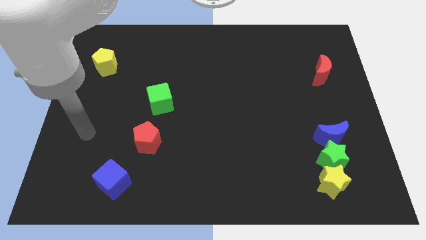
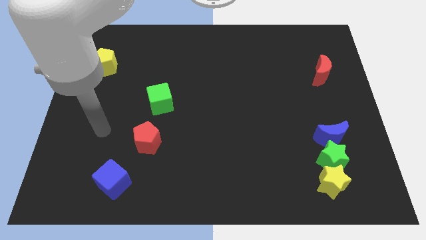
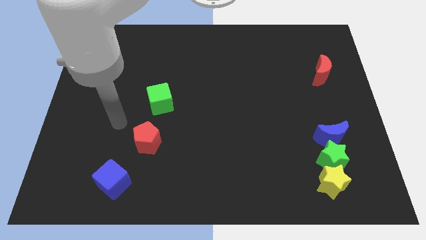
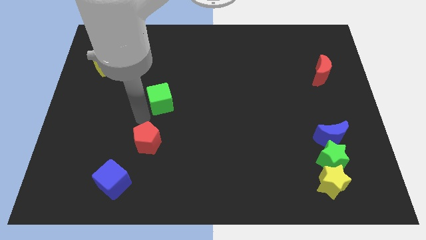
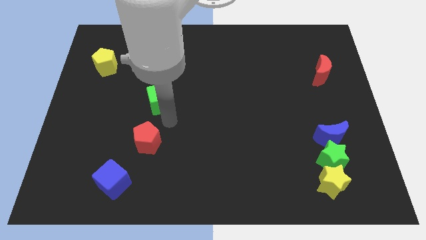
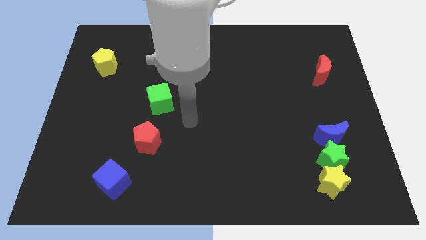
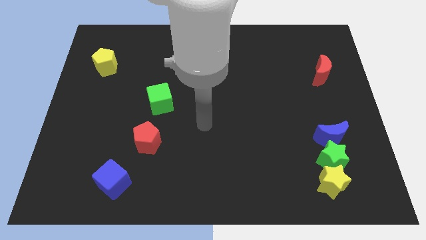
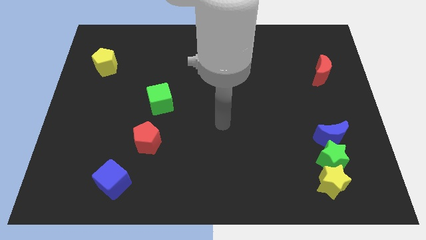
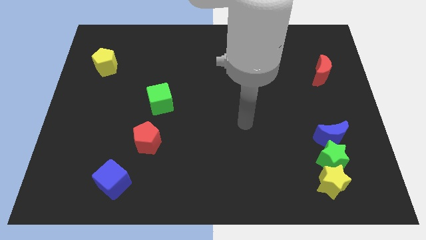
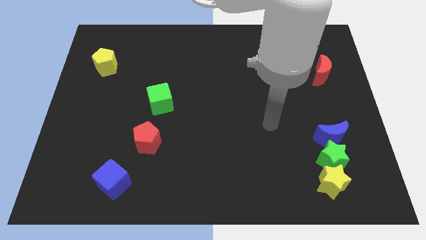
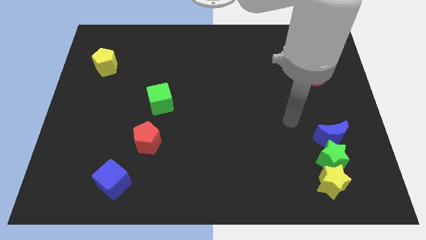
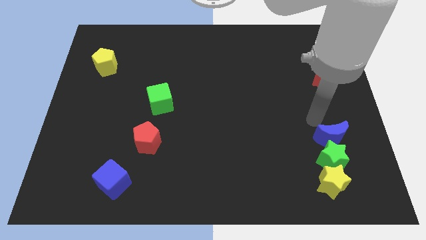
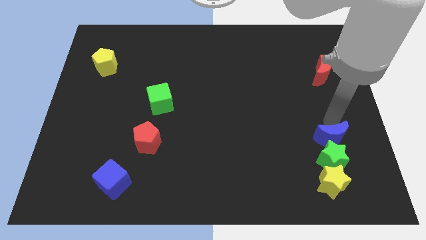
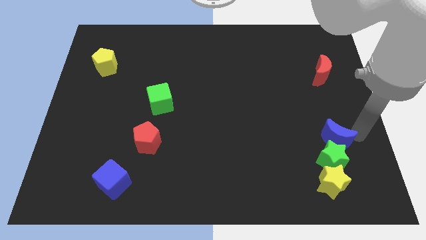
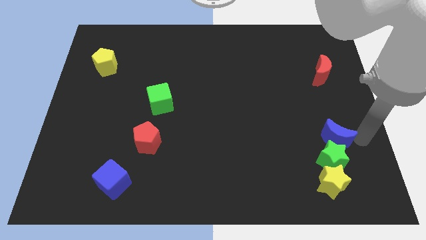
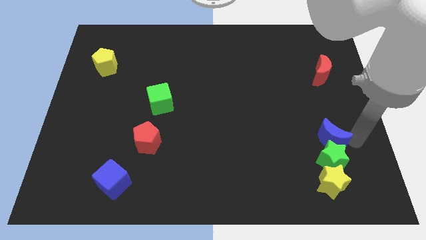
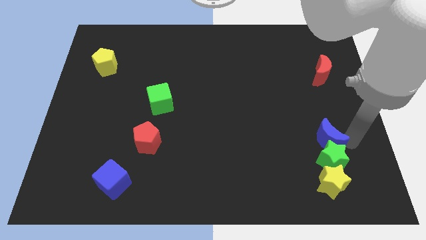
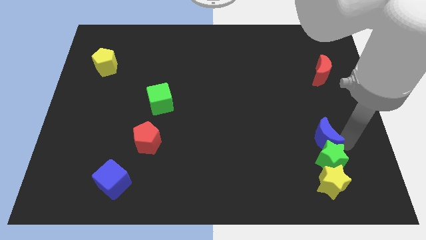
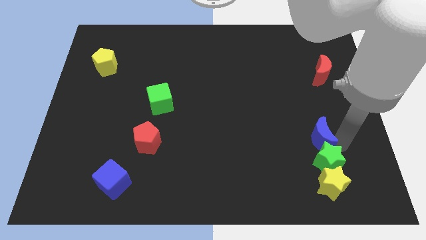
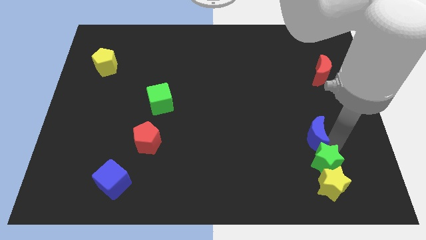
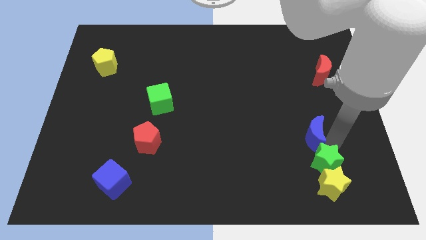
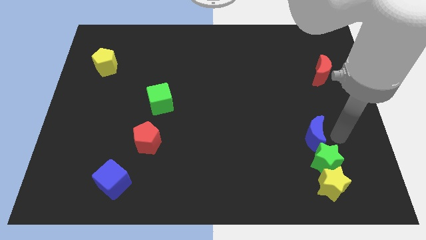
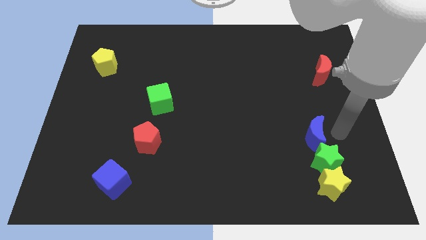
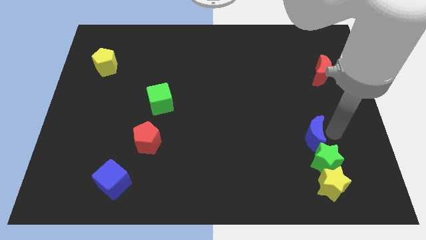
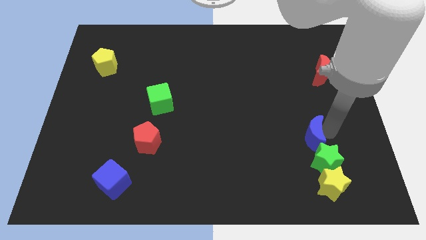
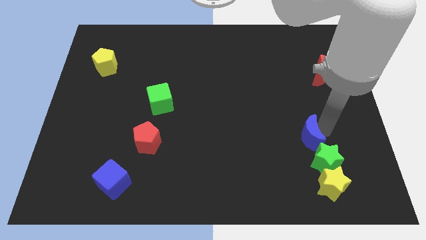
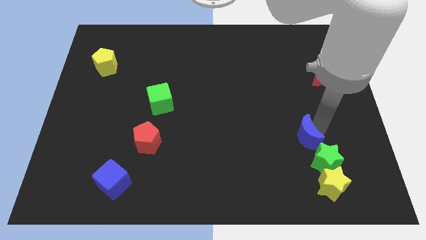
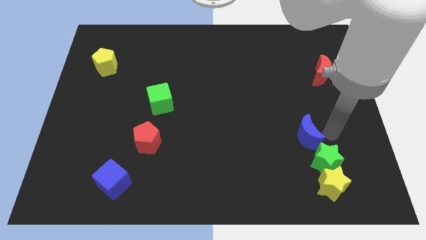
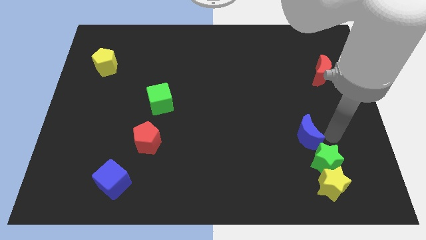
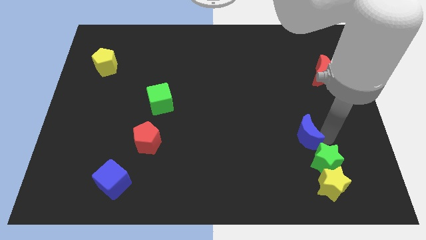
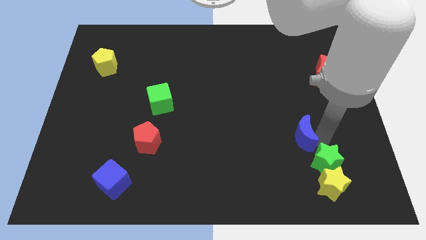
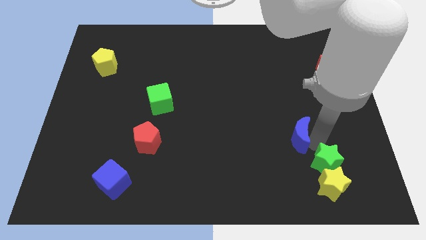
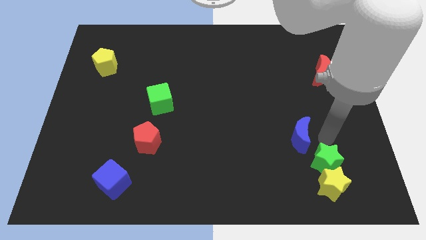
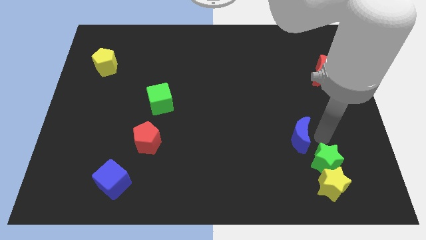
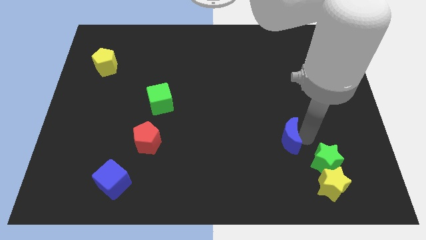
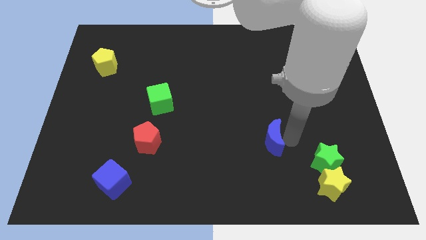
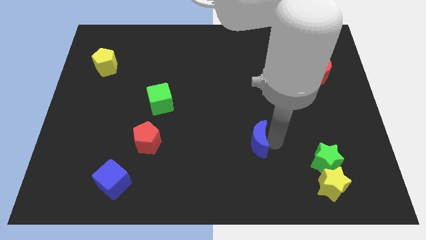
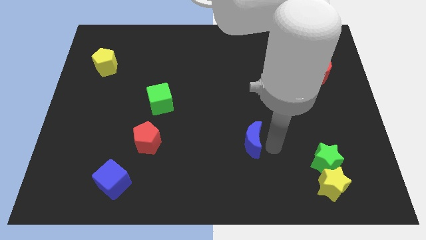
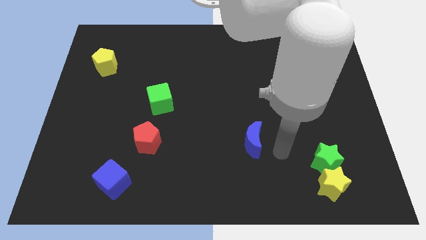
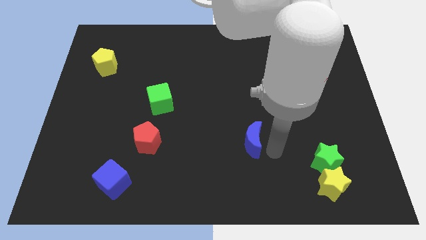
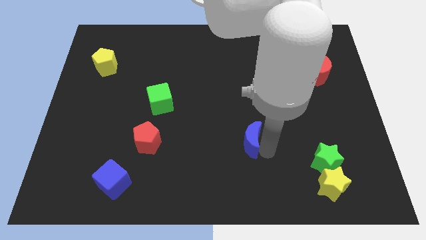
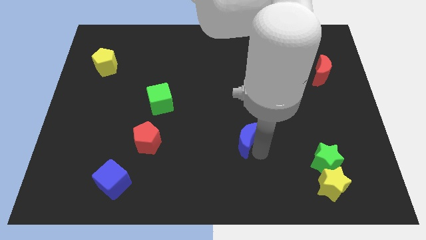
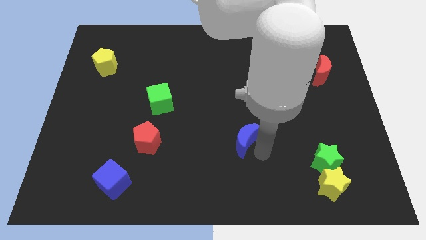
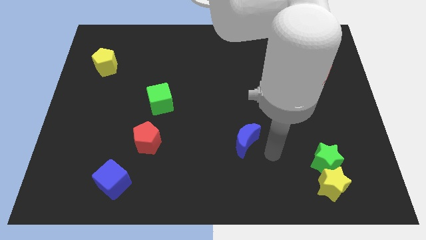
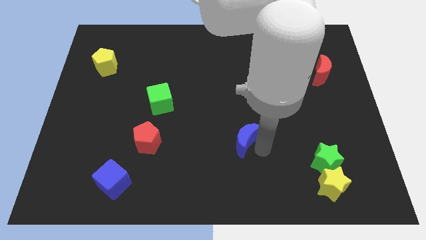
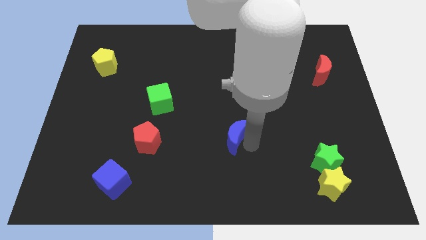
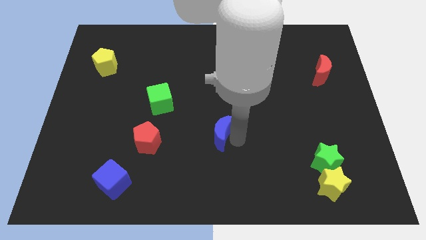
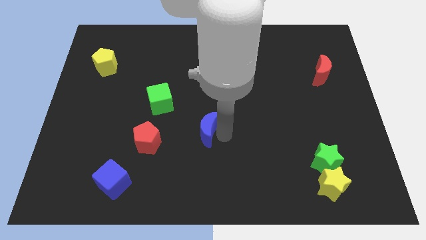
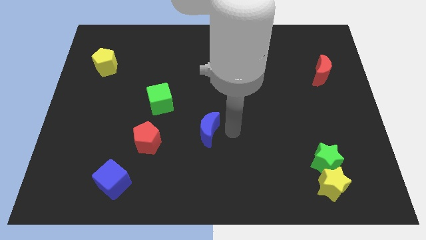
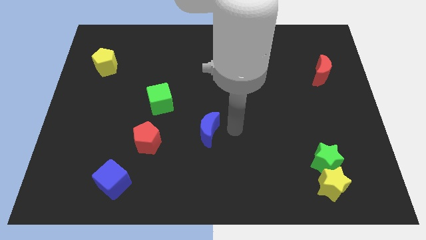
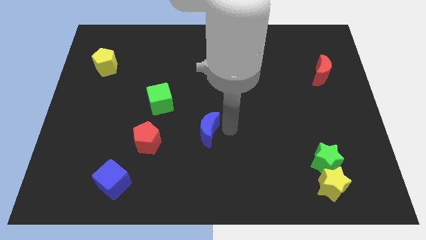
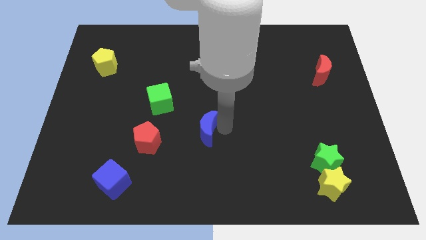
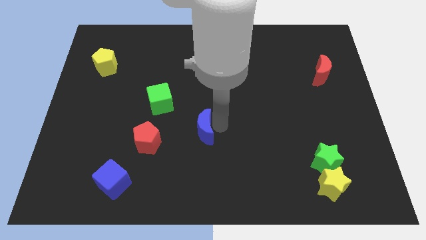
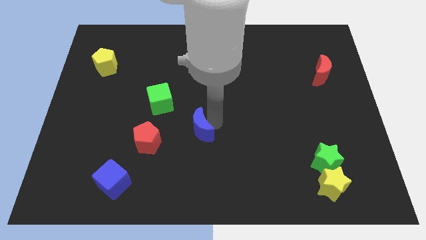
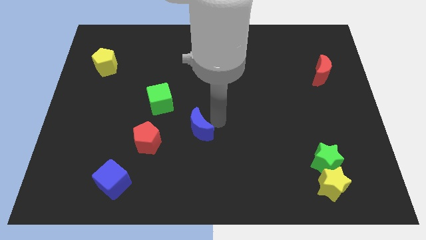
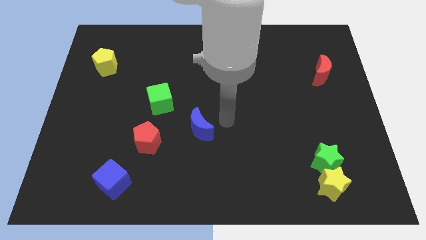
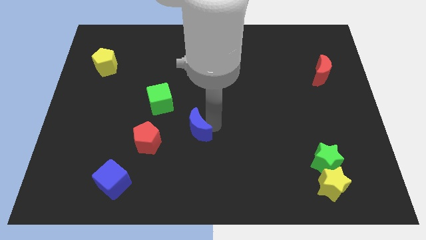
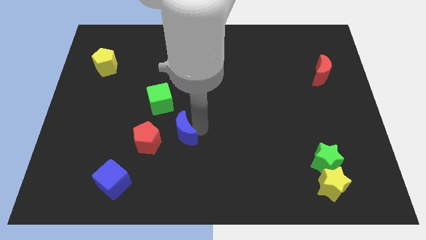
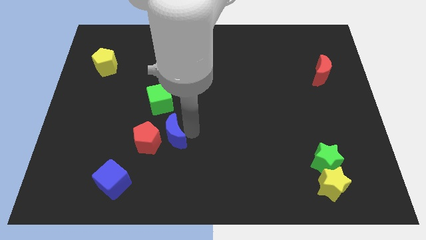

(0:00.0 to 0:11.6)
slide the blue moon close to the red pentagon

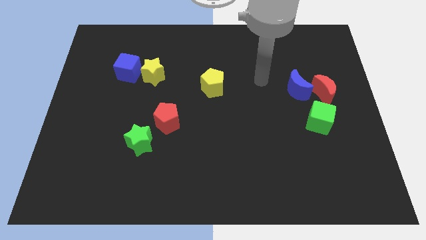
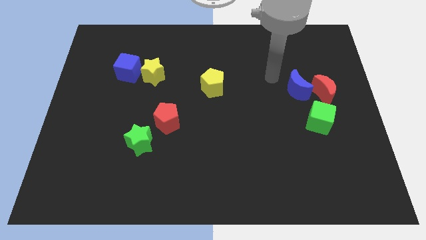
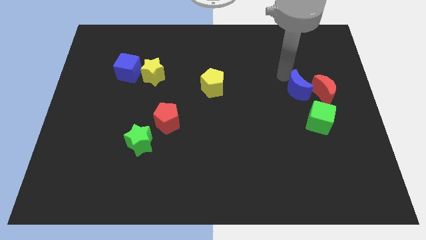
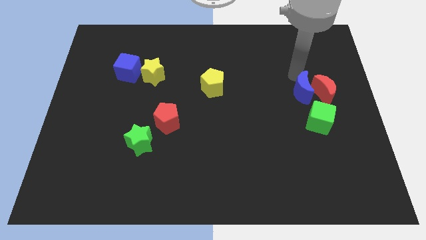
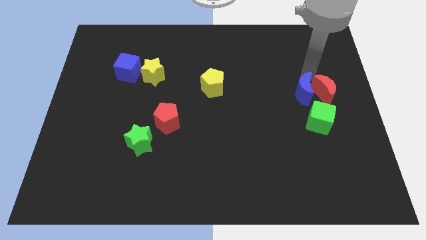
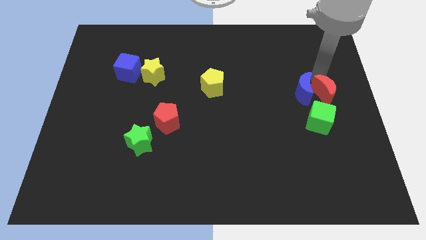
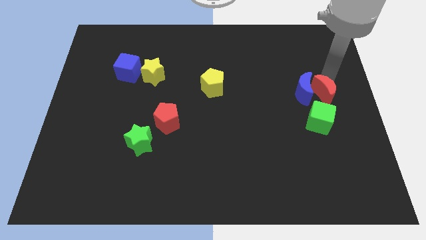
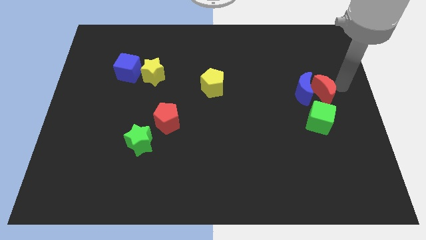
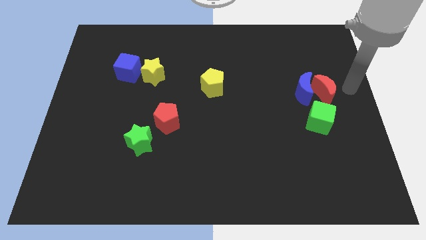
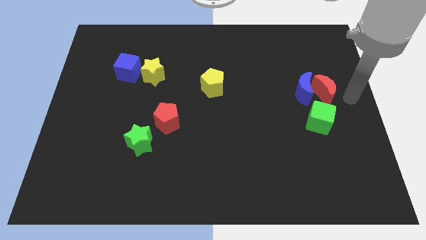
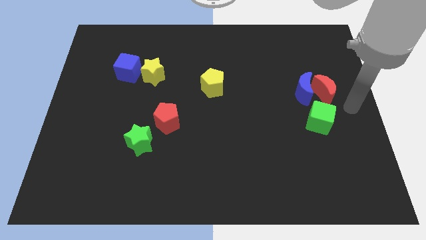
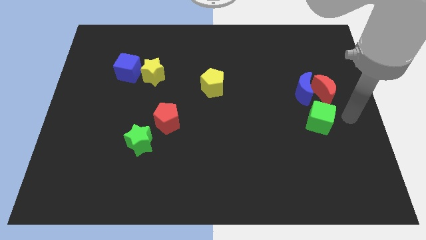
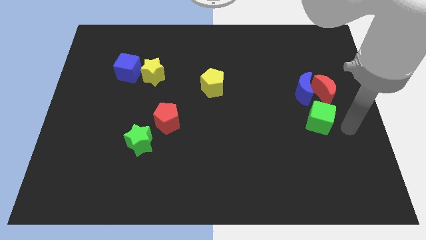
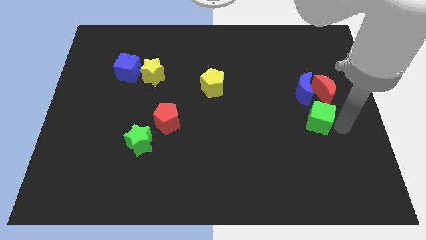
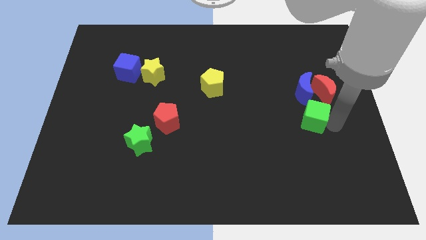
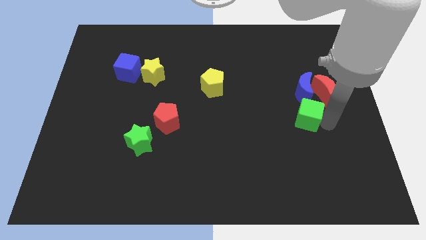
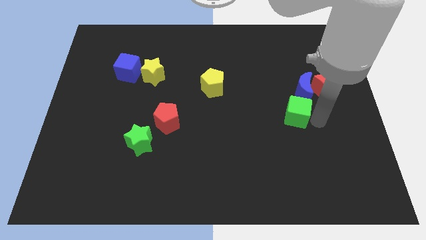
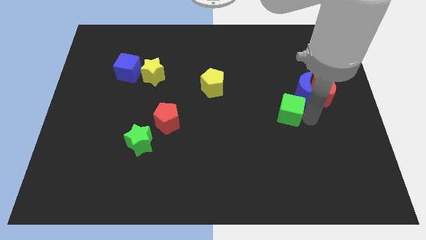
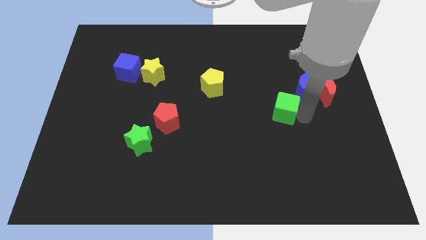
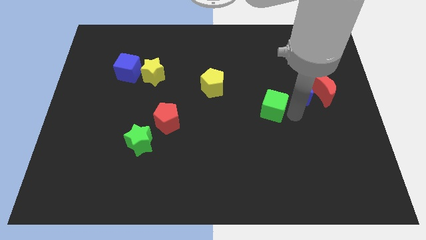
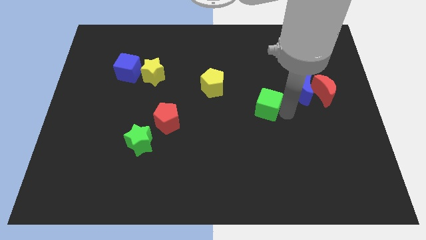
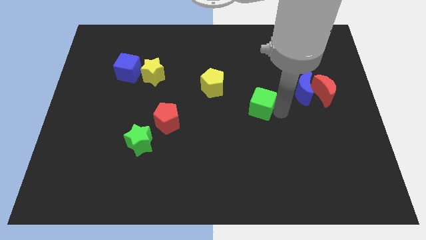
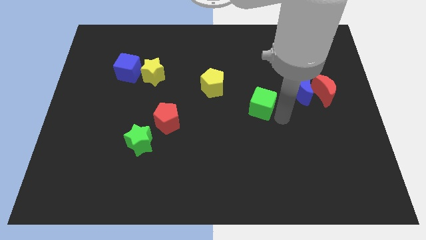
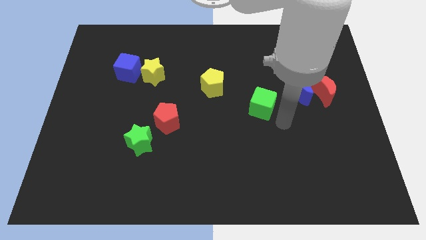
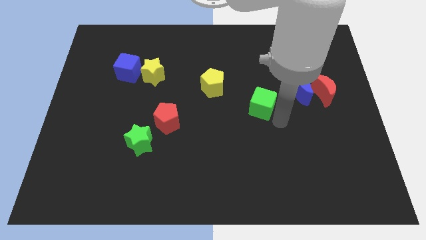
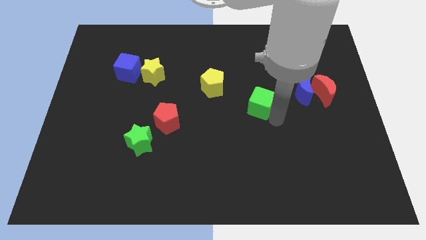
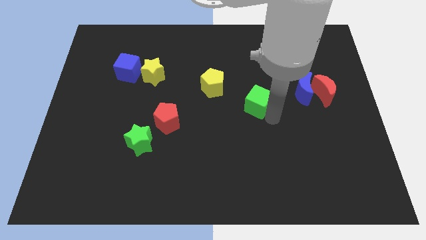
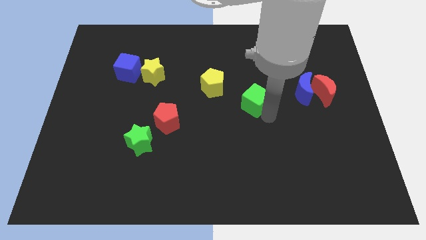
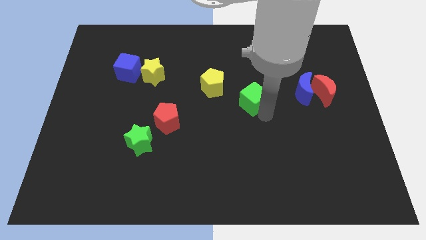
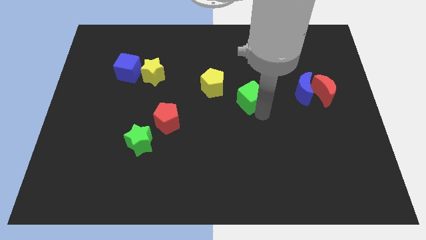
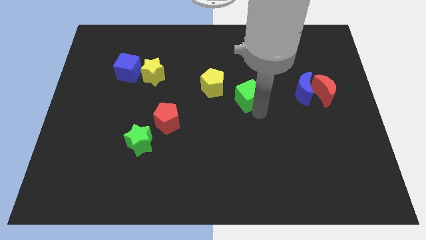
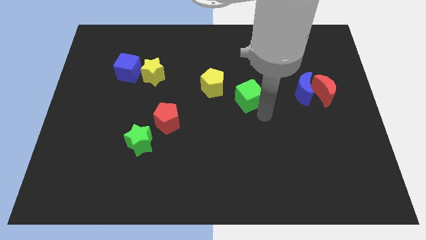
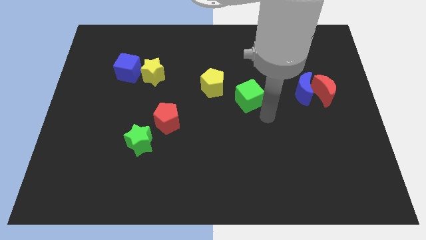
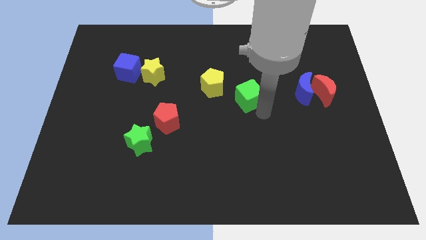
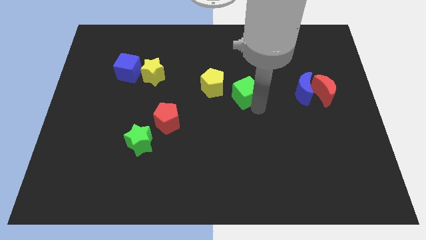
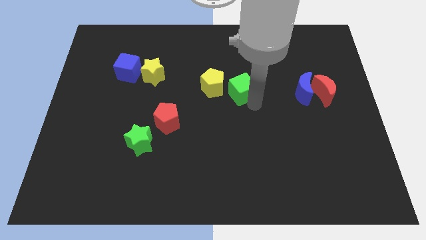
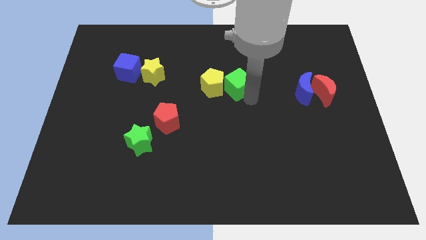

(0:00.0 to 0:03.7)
put the green cube next to the yellow pentagon
